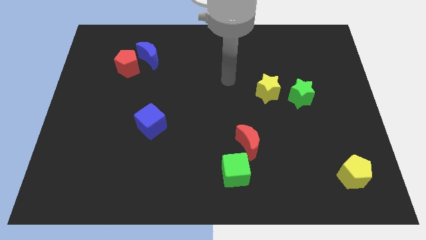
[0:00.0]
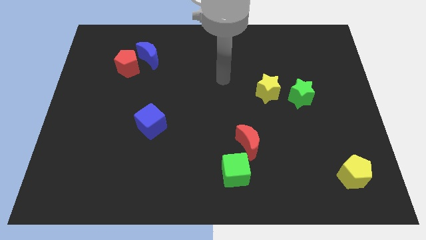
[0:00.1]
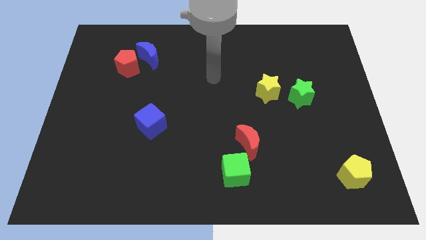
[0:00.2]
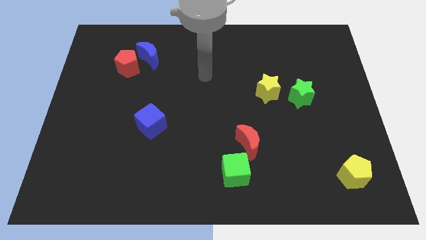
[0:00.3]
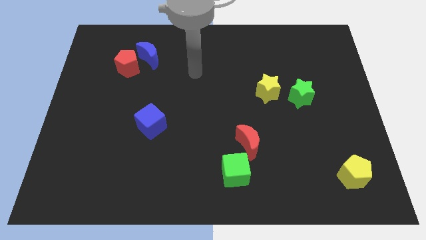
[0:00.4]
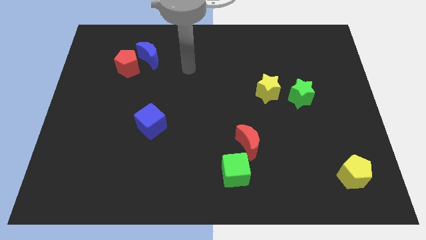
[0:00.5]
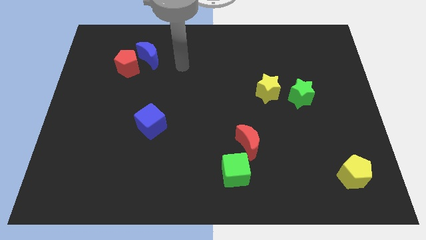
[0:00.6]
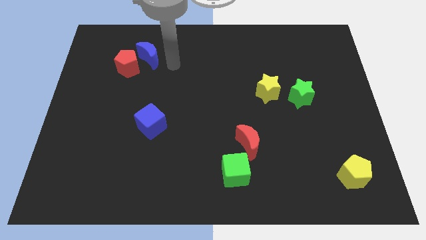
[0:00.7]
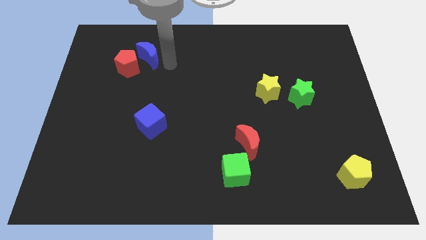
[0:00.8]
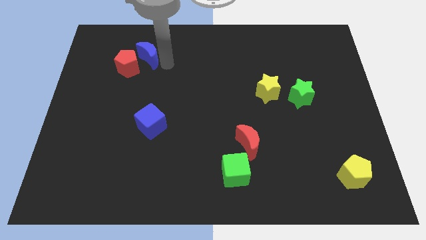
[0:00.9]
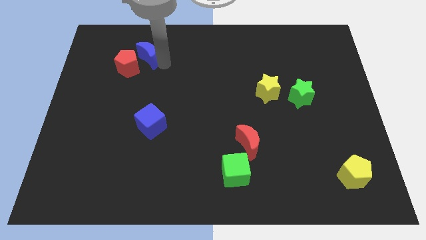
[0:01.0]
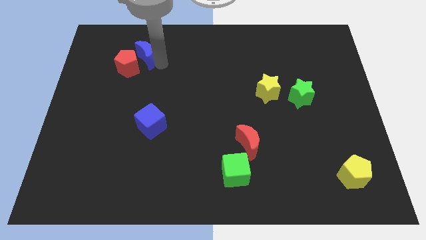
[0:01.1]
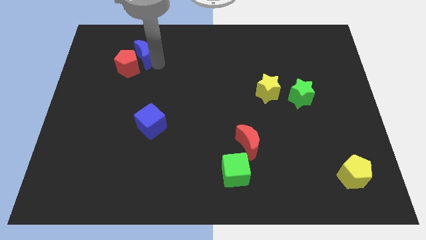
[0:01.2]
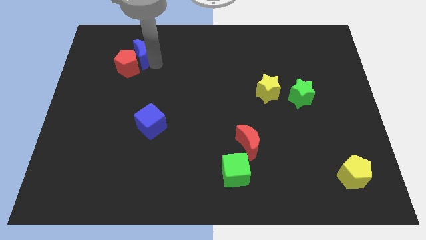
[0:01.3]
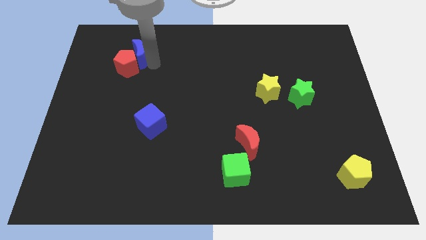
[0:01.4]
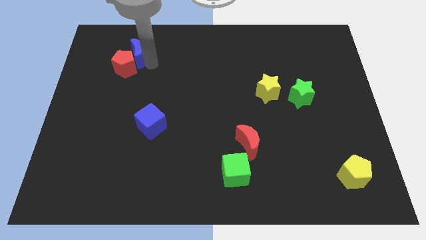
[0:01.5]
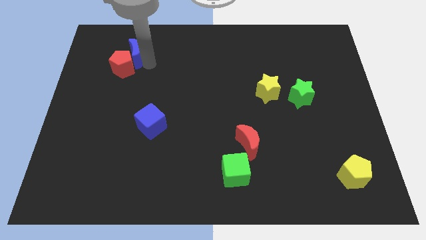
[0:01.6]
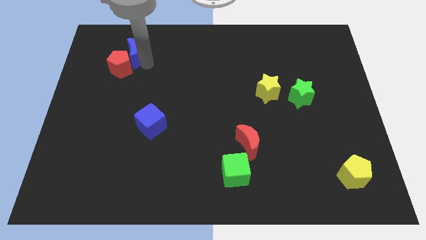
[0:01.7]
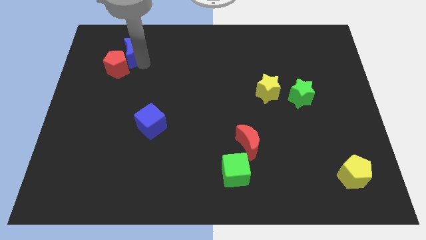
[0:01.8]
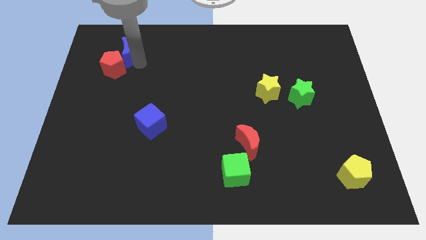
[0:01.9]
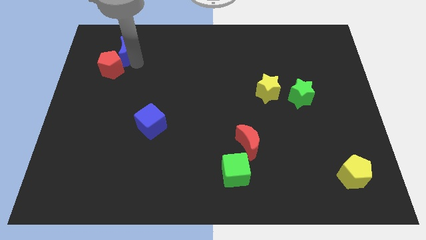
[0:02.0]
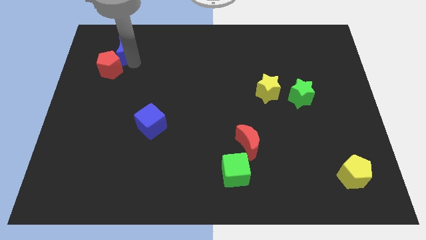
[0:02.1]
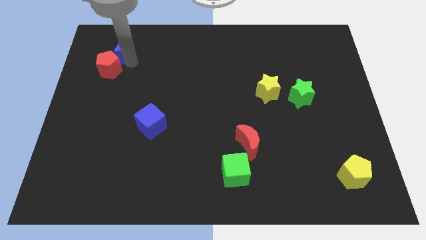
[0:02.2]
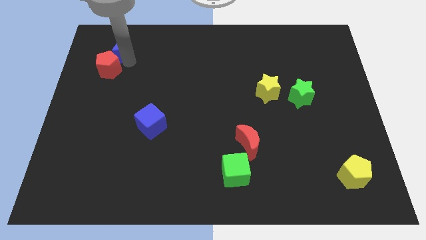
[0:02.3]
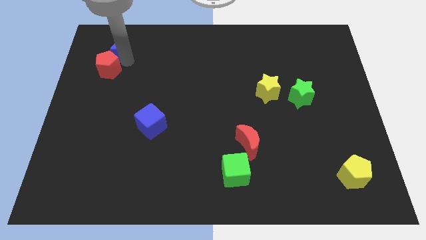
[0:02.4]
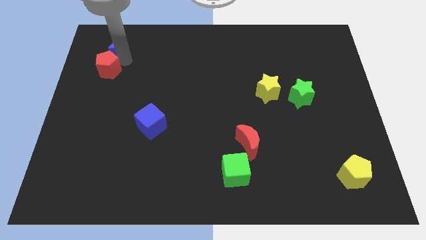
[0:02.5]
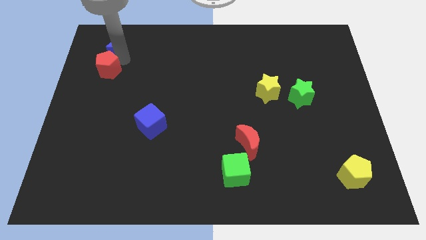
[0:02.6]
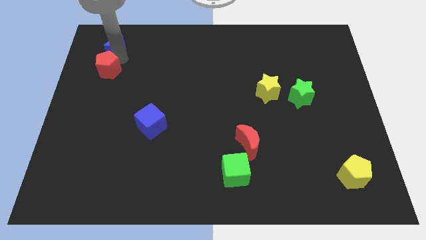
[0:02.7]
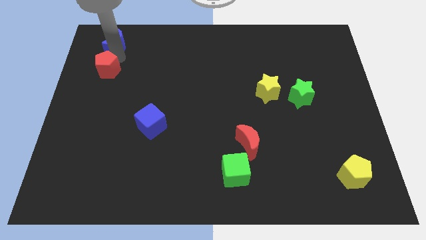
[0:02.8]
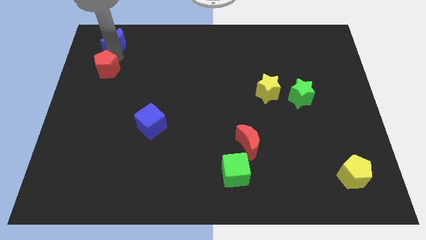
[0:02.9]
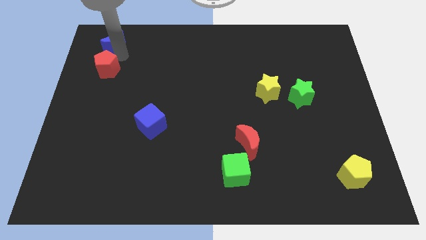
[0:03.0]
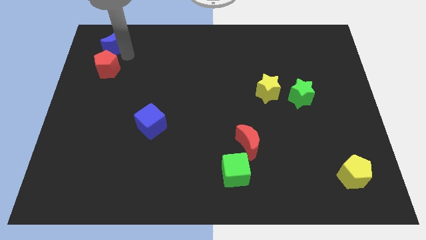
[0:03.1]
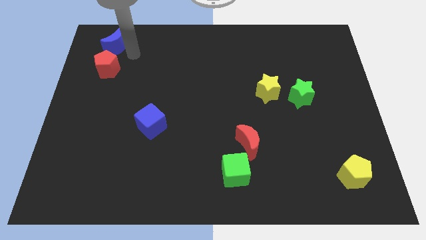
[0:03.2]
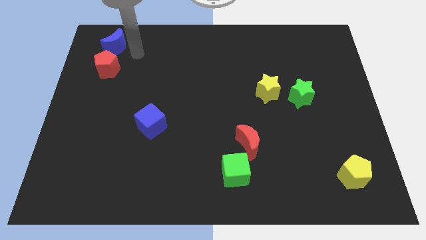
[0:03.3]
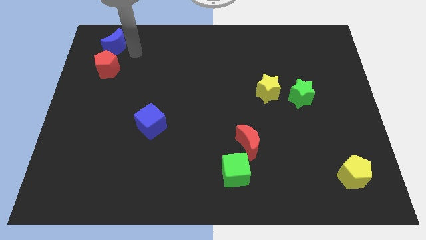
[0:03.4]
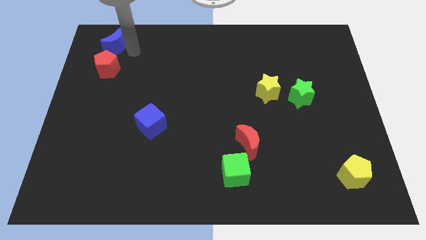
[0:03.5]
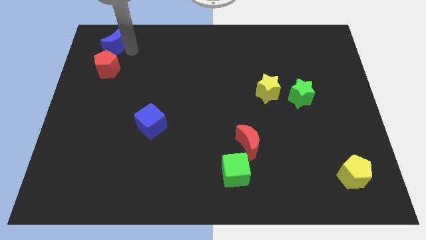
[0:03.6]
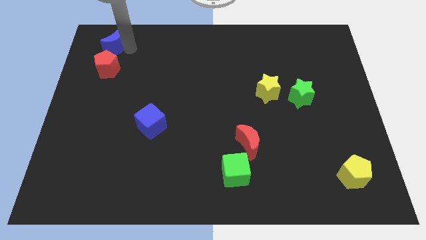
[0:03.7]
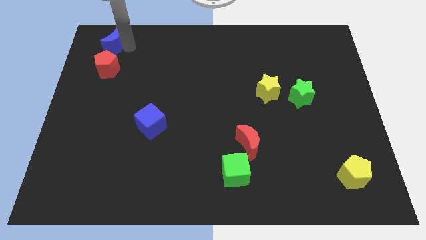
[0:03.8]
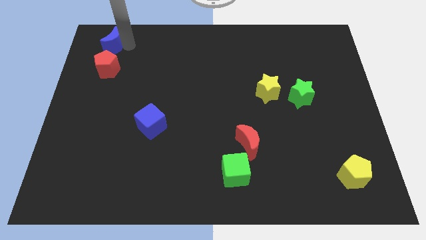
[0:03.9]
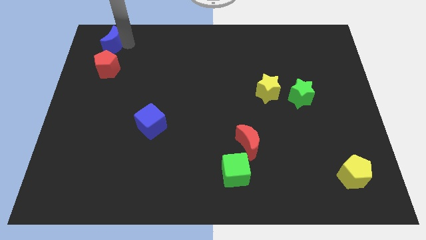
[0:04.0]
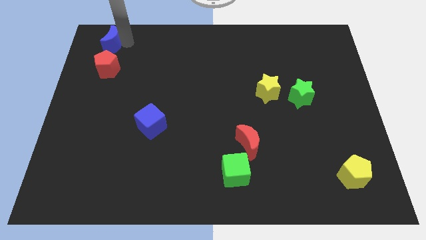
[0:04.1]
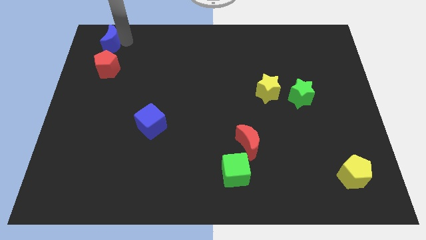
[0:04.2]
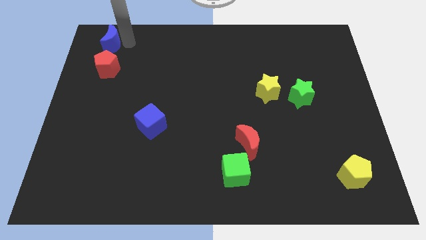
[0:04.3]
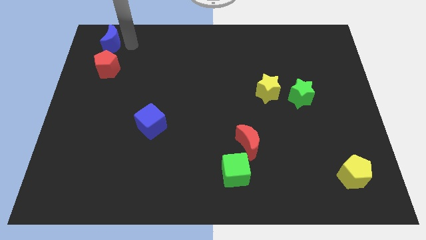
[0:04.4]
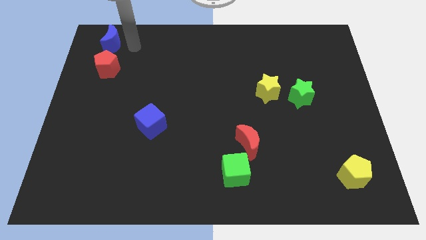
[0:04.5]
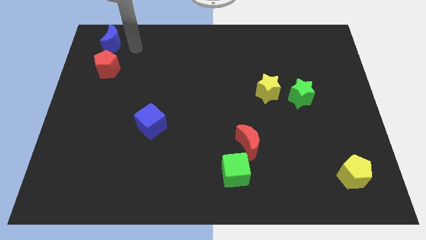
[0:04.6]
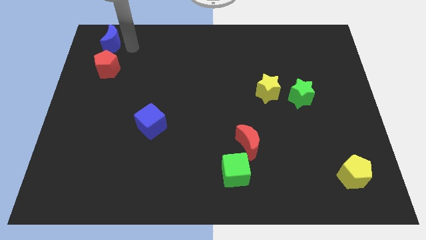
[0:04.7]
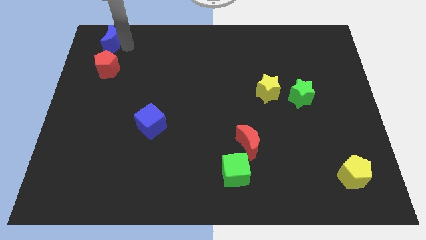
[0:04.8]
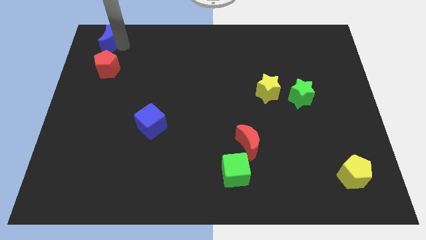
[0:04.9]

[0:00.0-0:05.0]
push the blue moon to the top left

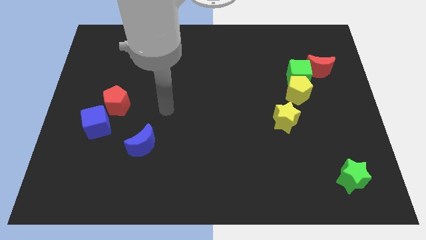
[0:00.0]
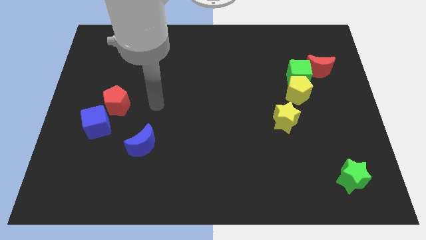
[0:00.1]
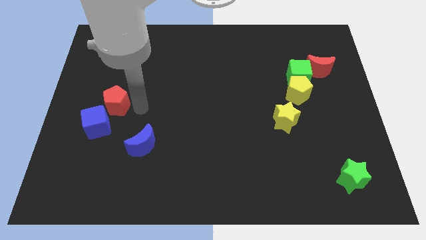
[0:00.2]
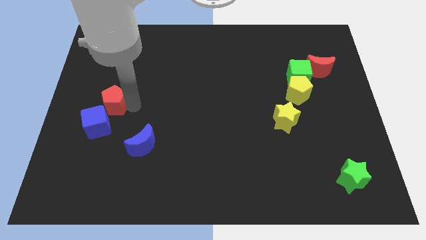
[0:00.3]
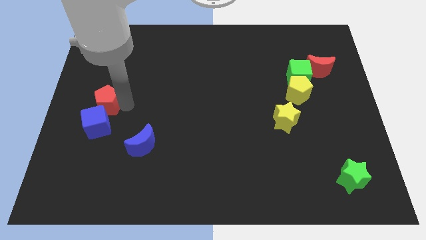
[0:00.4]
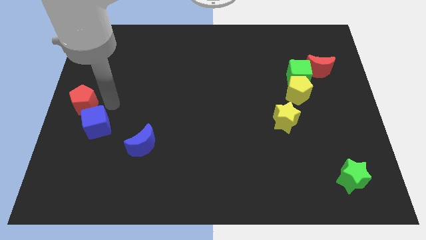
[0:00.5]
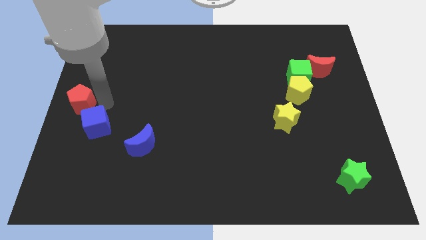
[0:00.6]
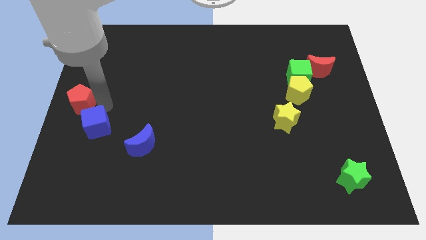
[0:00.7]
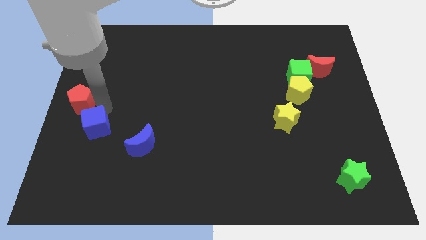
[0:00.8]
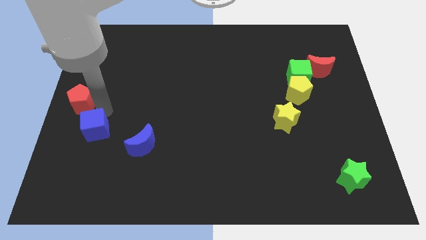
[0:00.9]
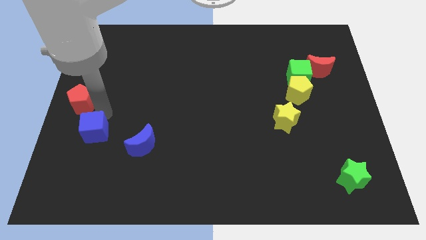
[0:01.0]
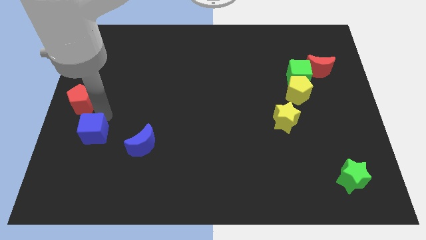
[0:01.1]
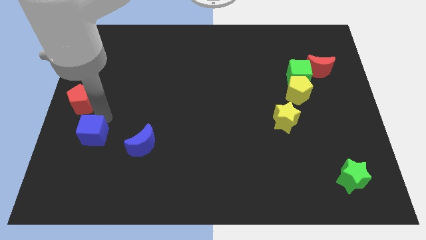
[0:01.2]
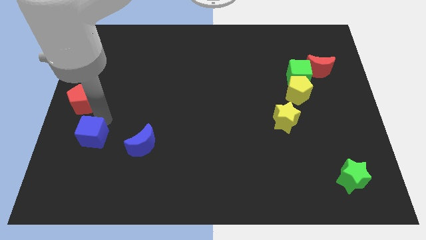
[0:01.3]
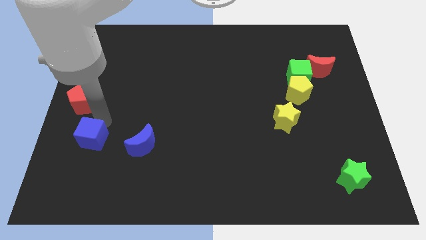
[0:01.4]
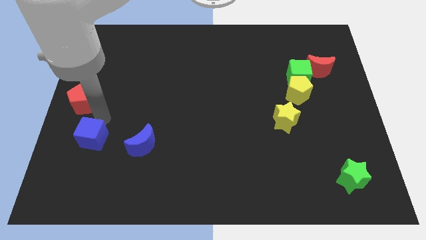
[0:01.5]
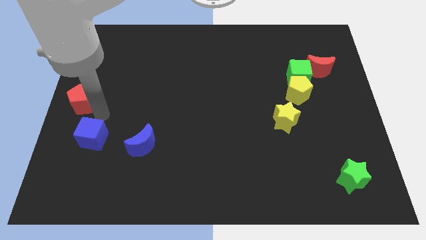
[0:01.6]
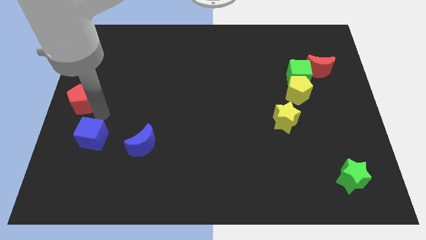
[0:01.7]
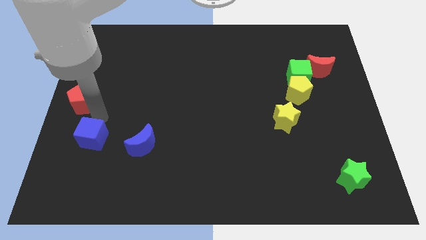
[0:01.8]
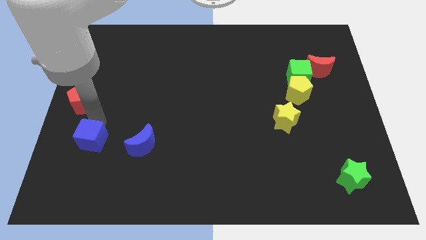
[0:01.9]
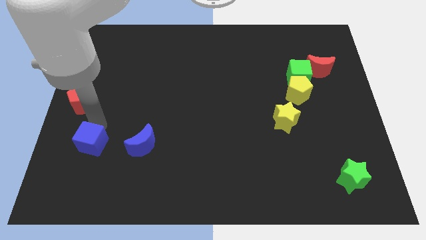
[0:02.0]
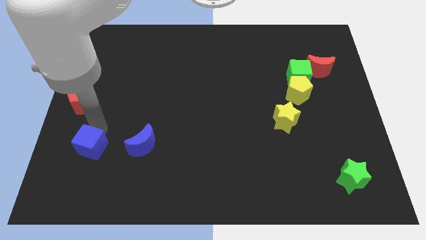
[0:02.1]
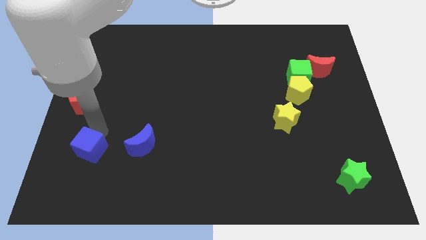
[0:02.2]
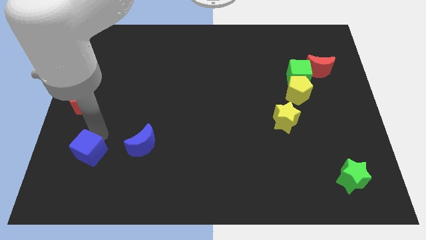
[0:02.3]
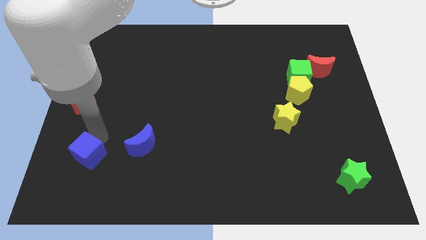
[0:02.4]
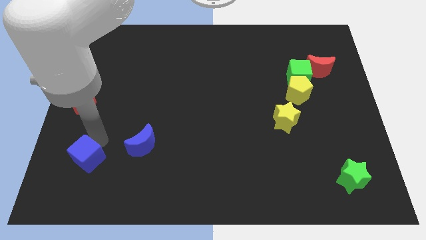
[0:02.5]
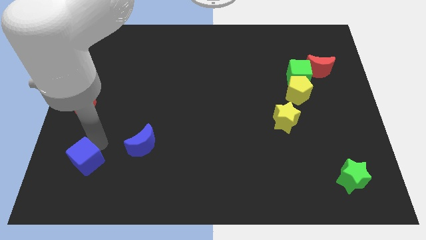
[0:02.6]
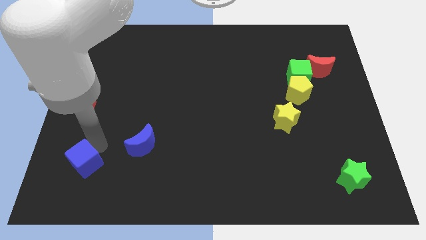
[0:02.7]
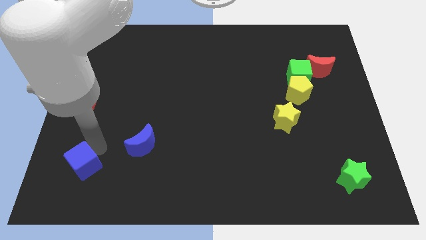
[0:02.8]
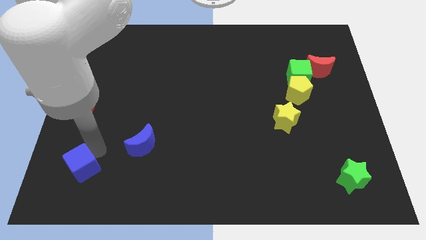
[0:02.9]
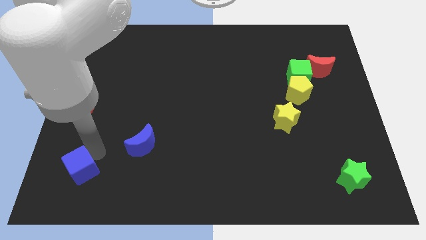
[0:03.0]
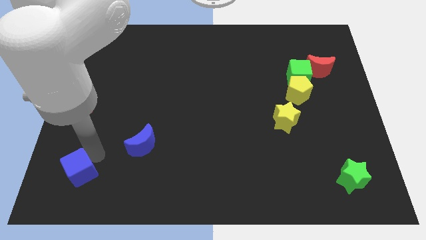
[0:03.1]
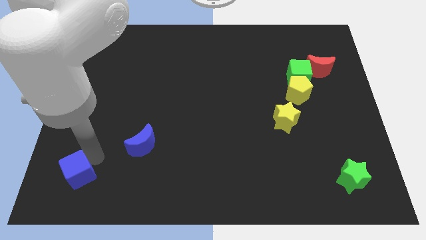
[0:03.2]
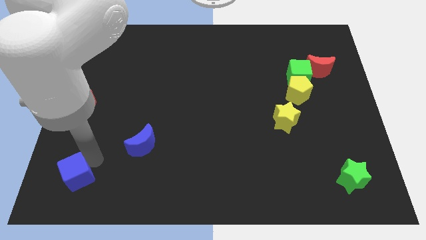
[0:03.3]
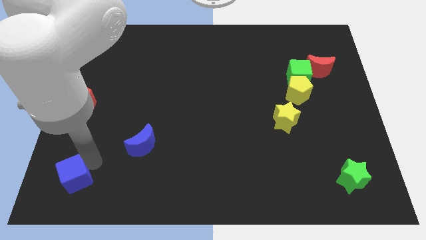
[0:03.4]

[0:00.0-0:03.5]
move the blue cube to the bottom left
